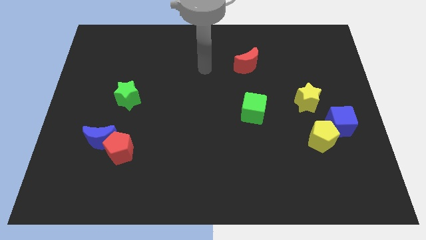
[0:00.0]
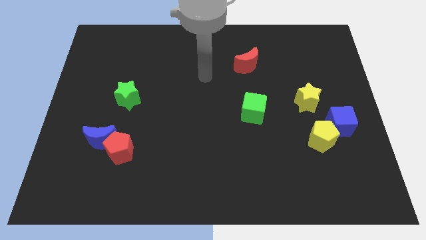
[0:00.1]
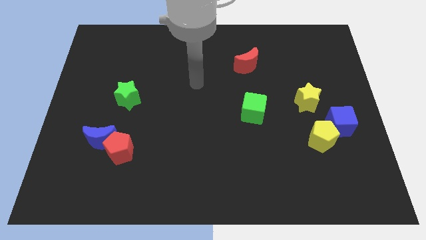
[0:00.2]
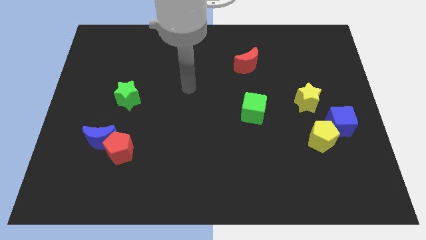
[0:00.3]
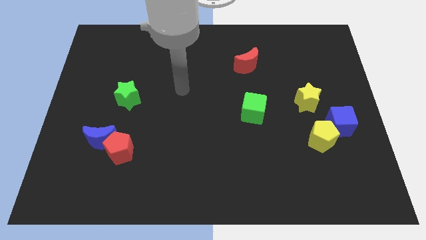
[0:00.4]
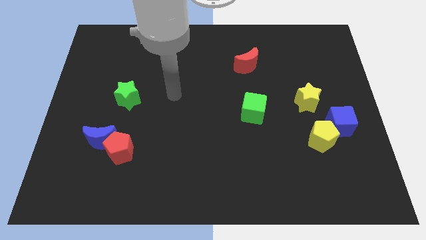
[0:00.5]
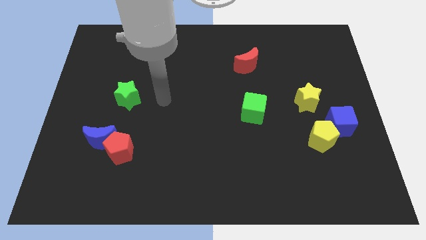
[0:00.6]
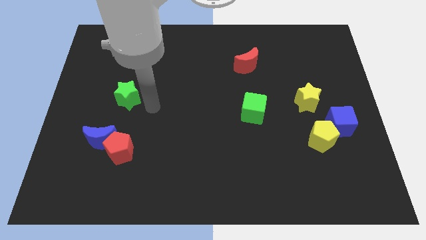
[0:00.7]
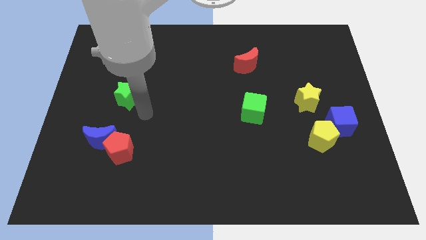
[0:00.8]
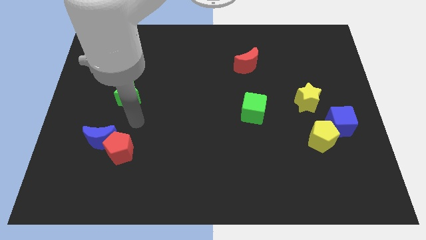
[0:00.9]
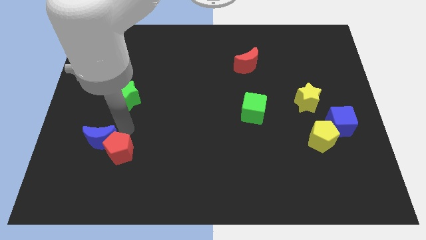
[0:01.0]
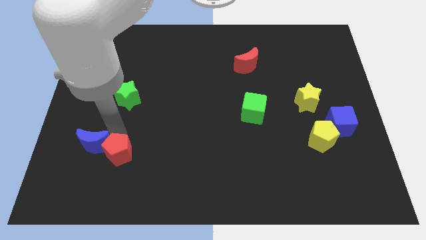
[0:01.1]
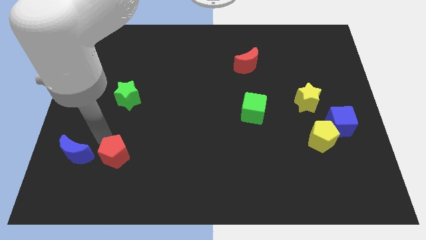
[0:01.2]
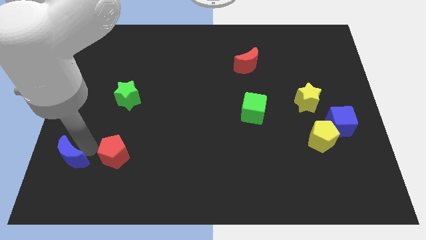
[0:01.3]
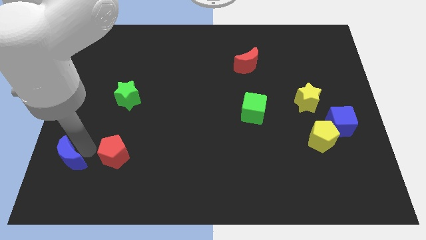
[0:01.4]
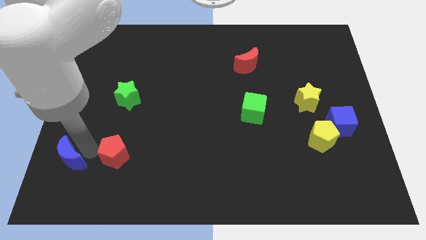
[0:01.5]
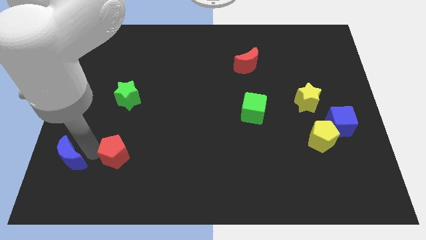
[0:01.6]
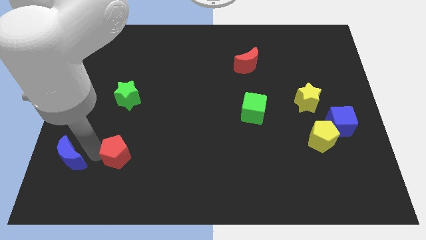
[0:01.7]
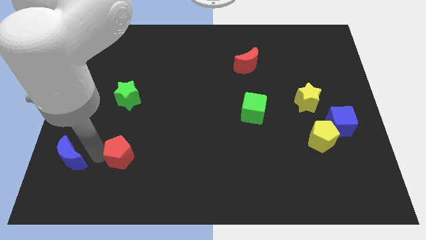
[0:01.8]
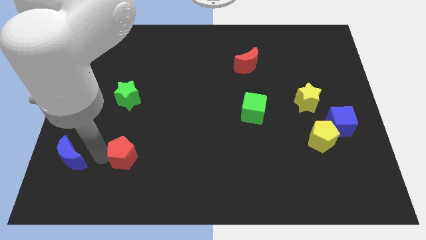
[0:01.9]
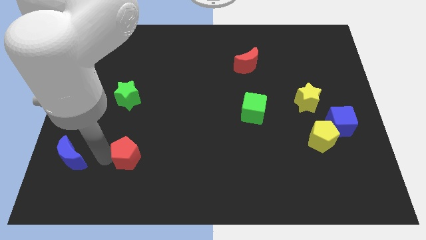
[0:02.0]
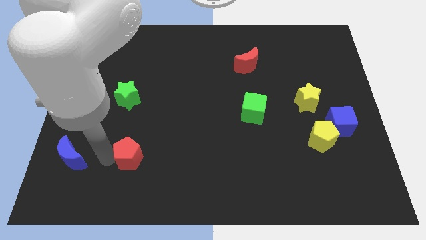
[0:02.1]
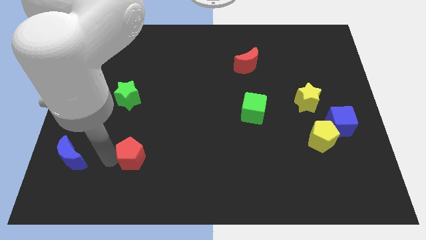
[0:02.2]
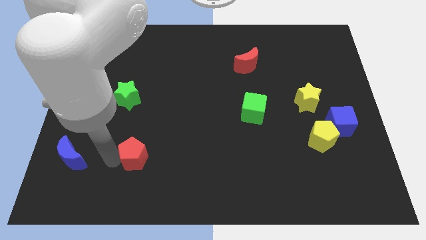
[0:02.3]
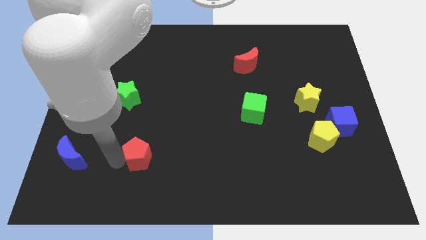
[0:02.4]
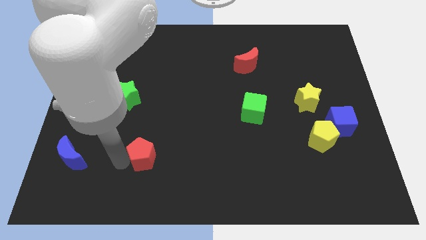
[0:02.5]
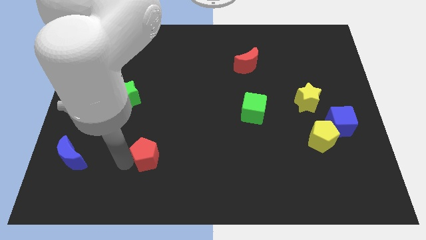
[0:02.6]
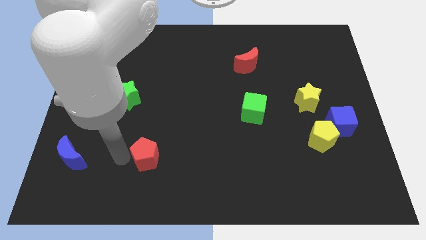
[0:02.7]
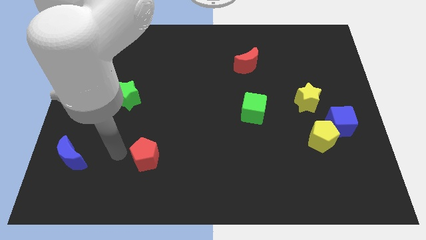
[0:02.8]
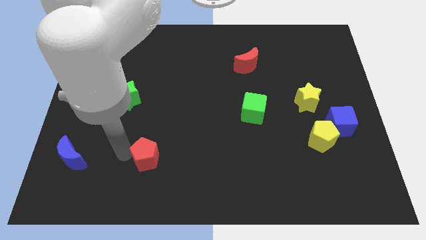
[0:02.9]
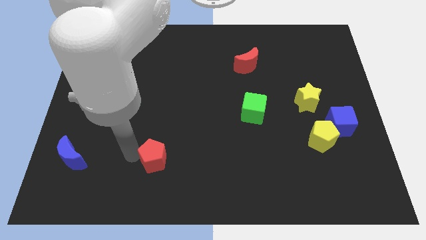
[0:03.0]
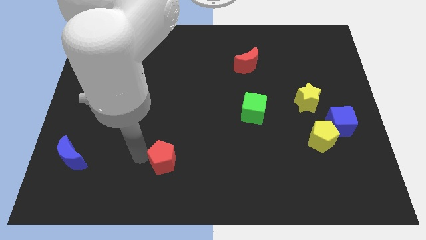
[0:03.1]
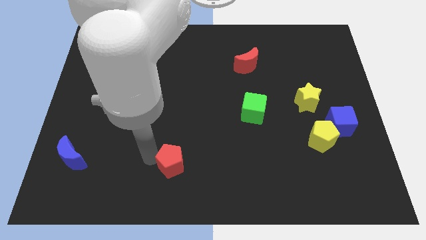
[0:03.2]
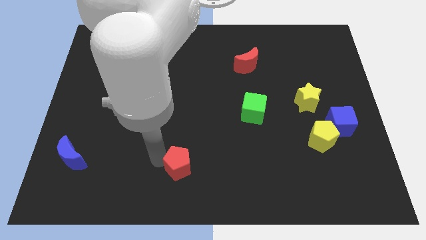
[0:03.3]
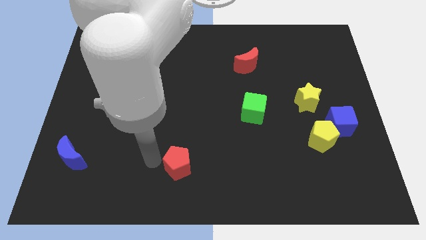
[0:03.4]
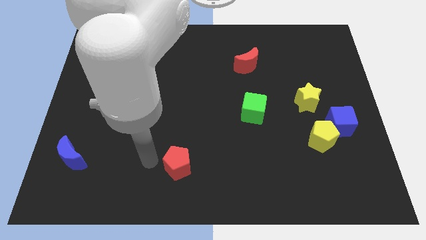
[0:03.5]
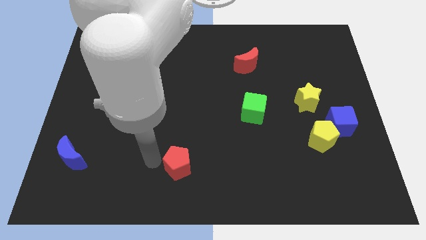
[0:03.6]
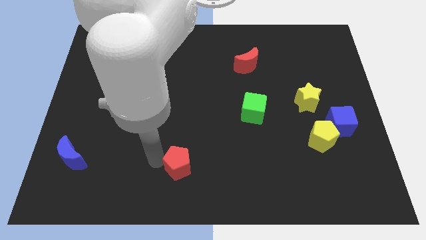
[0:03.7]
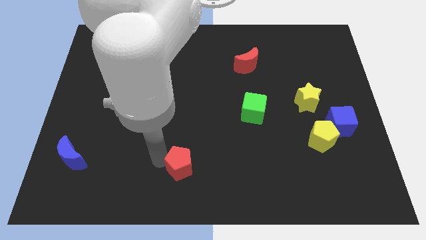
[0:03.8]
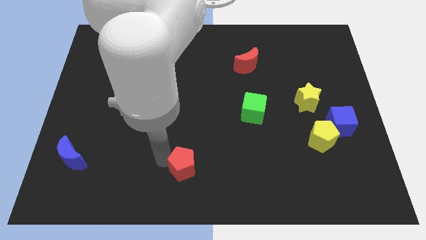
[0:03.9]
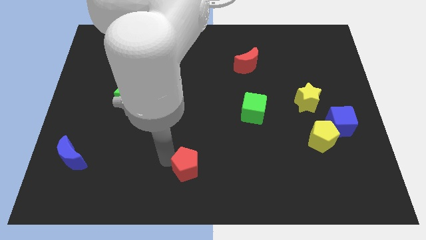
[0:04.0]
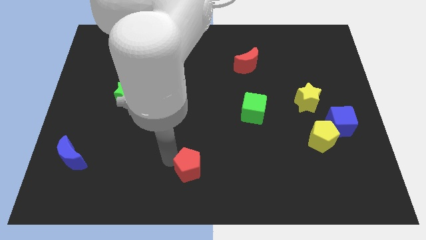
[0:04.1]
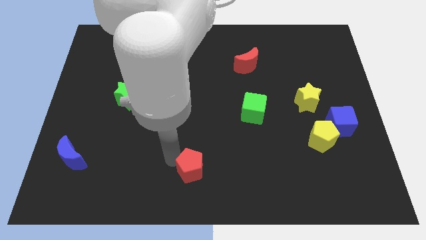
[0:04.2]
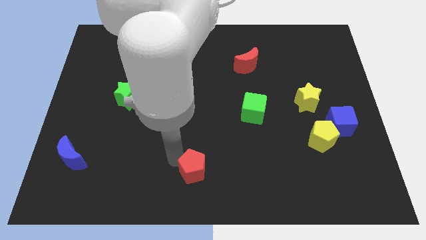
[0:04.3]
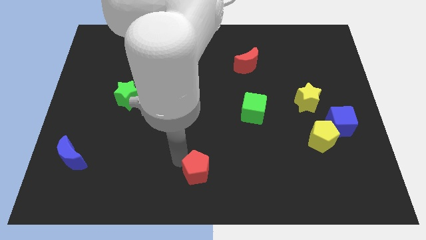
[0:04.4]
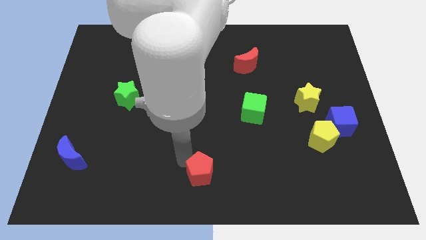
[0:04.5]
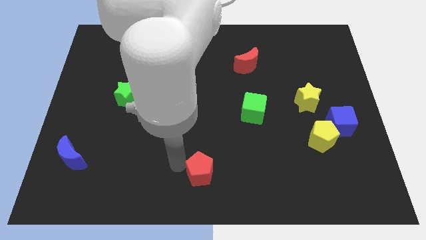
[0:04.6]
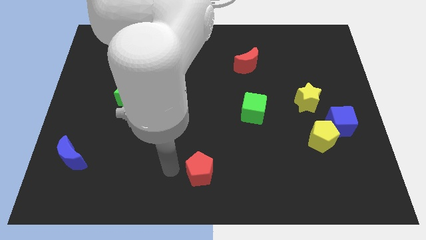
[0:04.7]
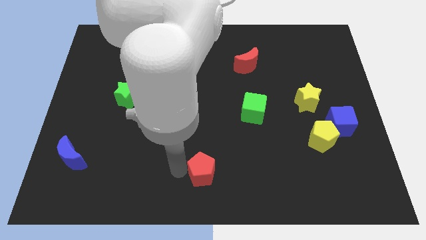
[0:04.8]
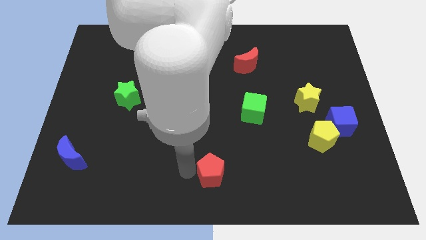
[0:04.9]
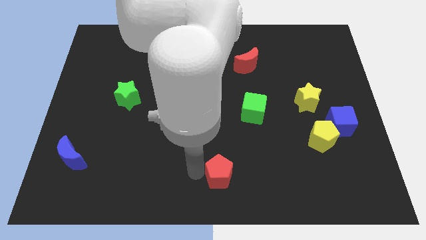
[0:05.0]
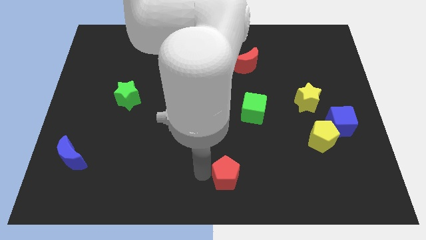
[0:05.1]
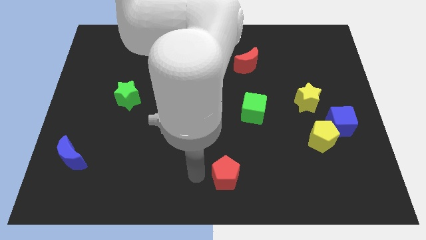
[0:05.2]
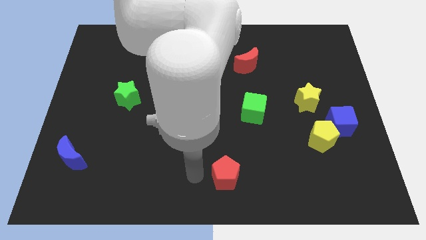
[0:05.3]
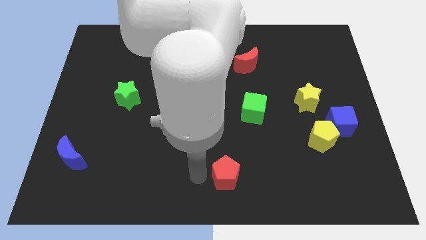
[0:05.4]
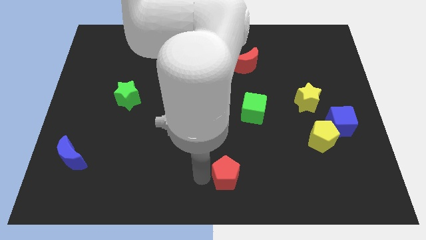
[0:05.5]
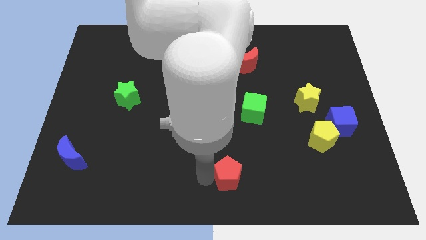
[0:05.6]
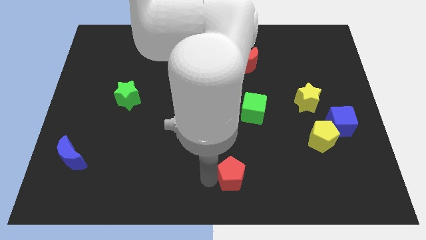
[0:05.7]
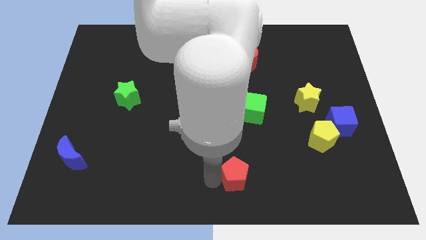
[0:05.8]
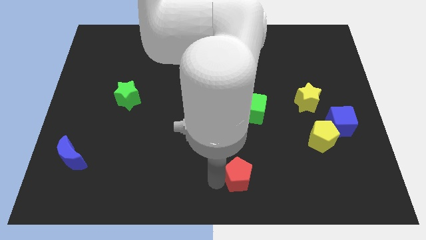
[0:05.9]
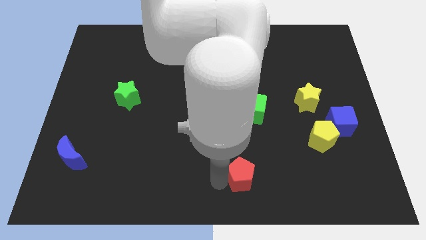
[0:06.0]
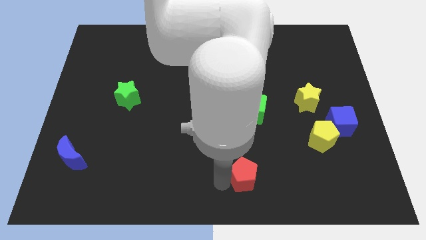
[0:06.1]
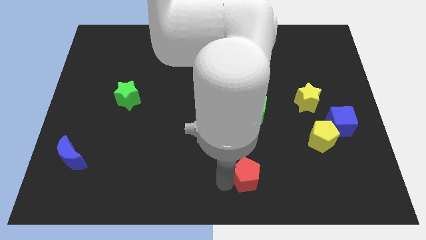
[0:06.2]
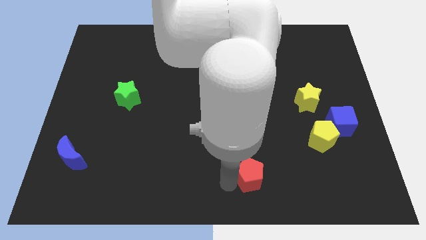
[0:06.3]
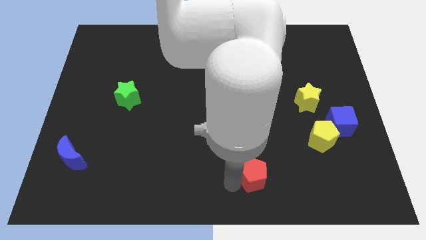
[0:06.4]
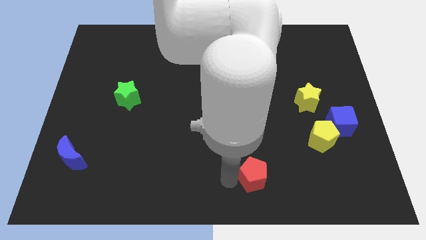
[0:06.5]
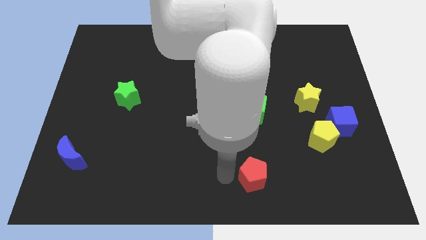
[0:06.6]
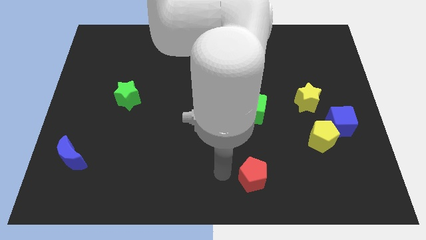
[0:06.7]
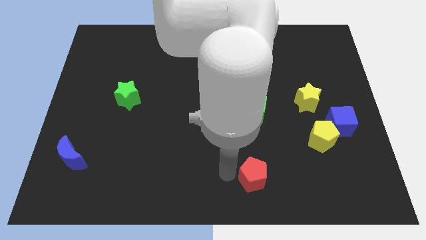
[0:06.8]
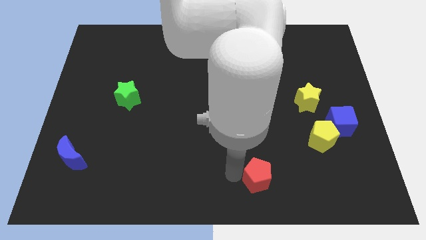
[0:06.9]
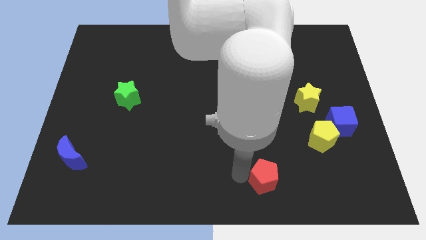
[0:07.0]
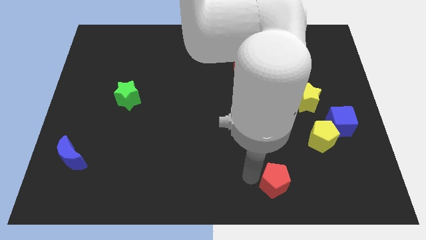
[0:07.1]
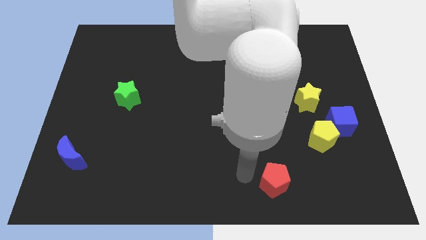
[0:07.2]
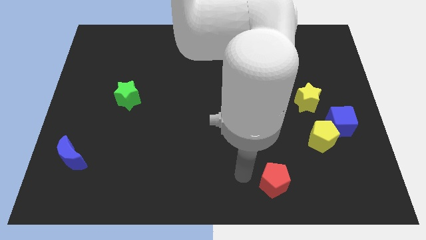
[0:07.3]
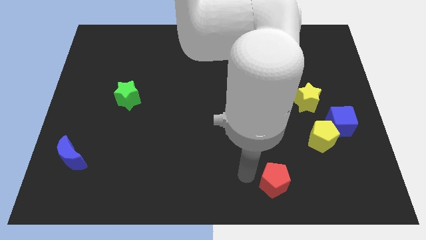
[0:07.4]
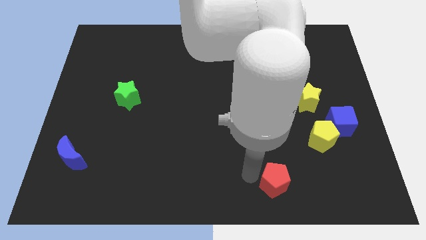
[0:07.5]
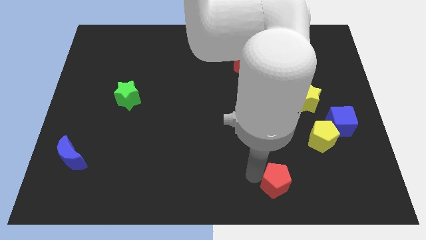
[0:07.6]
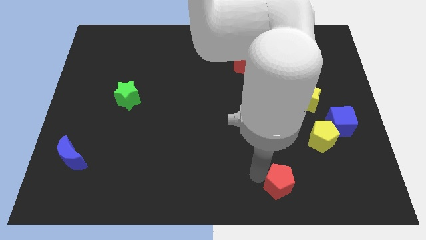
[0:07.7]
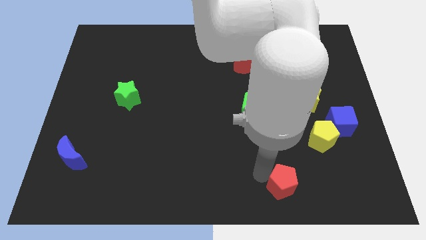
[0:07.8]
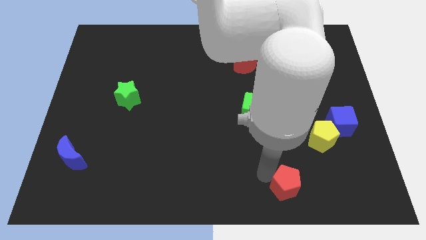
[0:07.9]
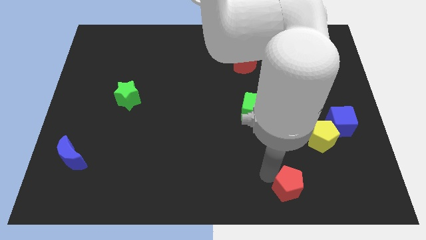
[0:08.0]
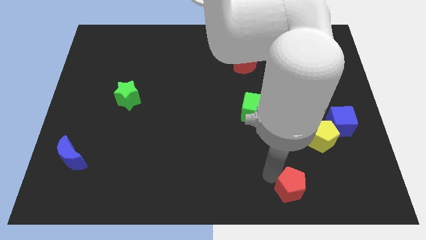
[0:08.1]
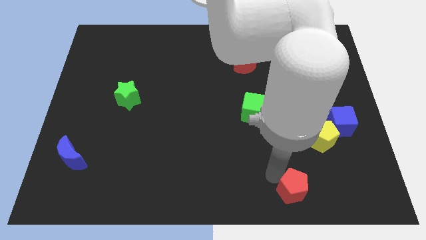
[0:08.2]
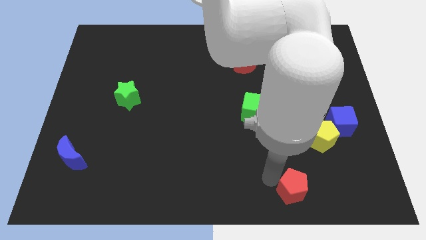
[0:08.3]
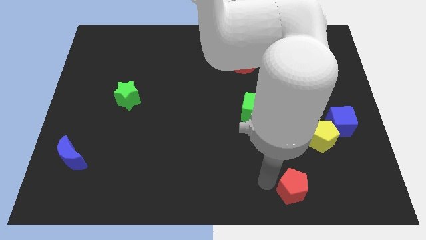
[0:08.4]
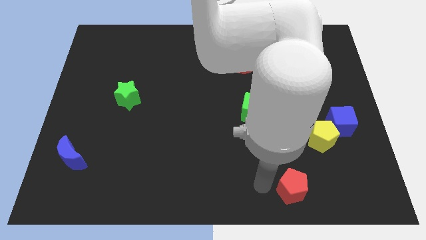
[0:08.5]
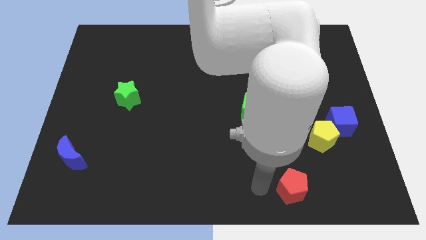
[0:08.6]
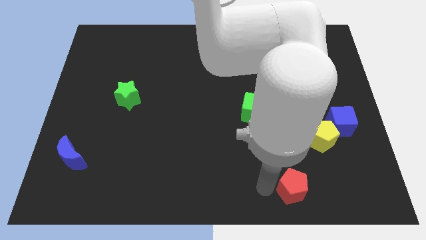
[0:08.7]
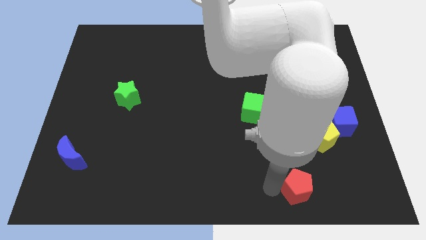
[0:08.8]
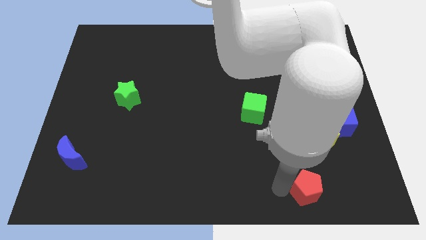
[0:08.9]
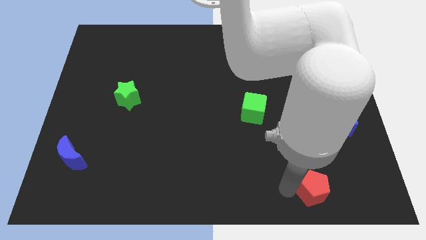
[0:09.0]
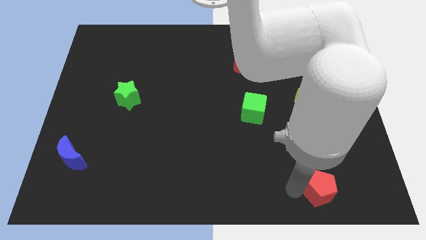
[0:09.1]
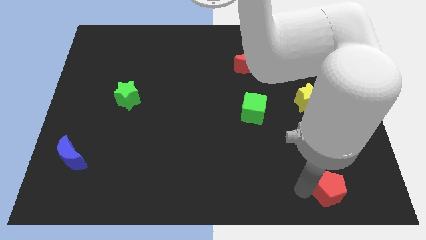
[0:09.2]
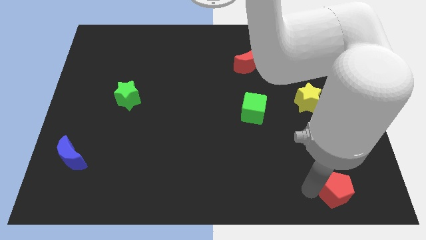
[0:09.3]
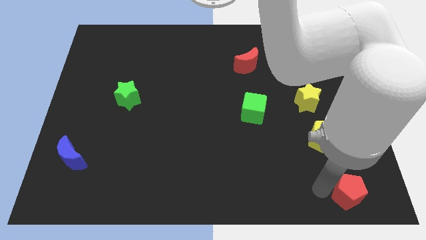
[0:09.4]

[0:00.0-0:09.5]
move the red pentagon to the lower right corner
